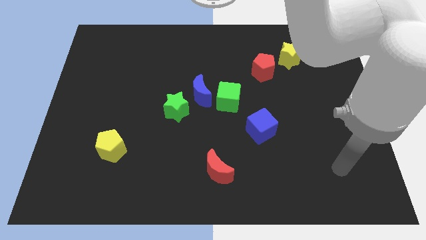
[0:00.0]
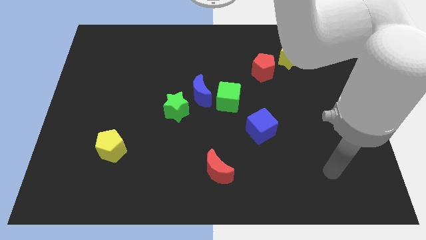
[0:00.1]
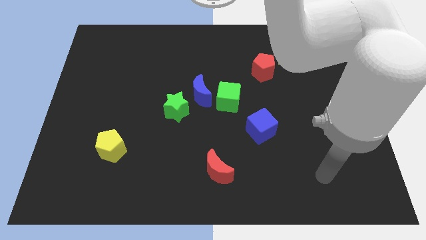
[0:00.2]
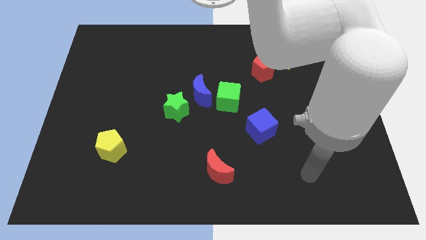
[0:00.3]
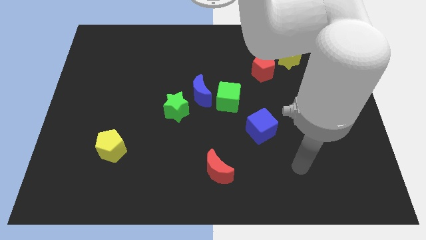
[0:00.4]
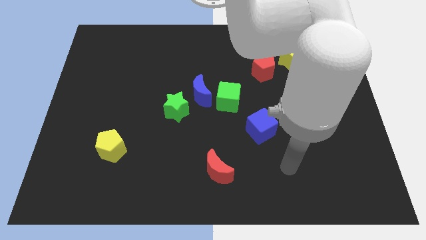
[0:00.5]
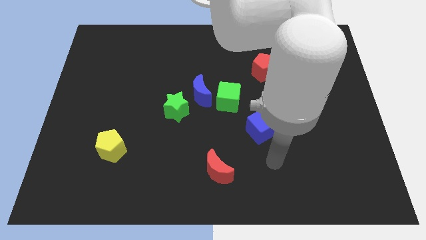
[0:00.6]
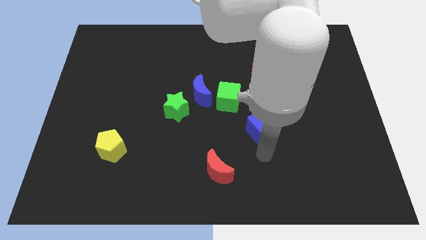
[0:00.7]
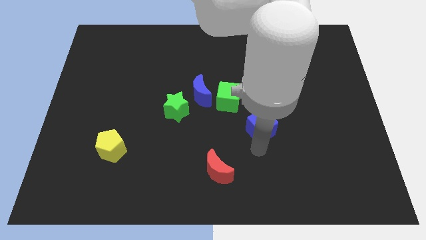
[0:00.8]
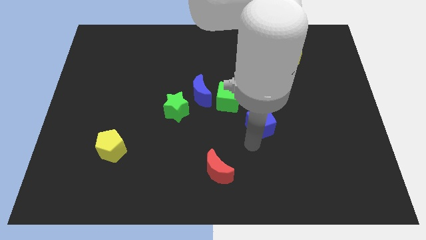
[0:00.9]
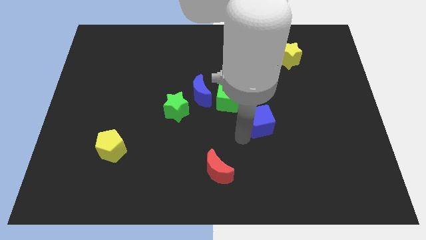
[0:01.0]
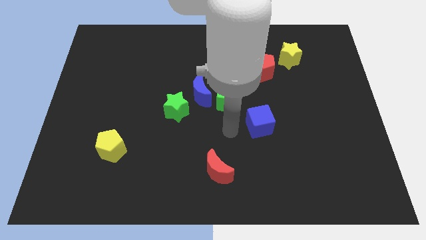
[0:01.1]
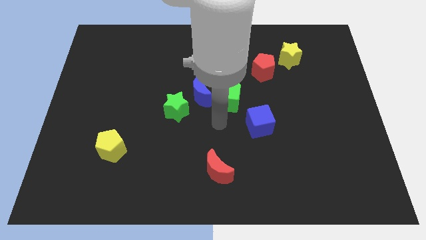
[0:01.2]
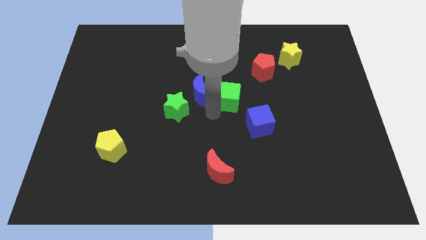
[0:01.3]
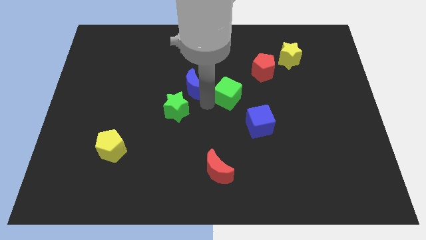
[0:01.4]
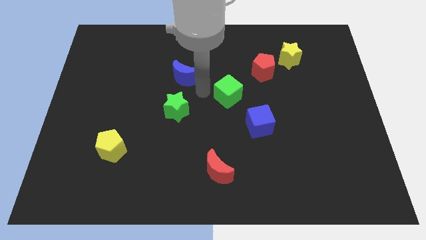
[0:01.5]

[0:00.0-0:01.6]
move the green cube away from the blue moon

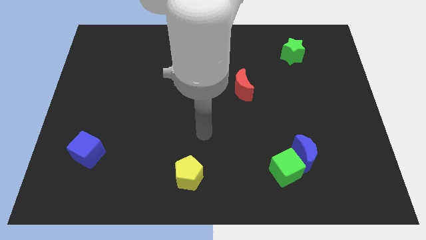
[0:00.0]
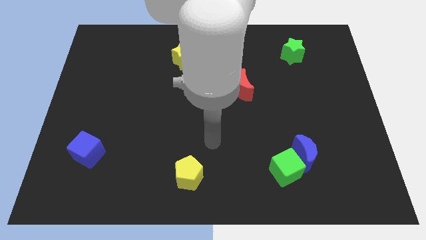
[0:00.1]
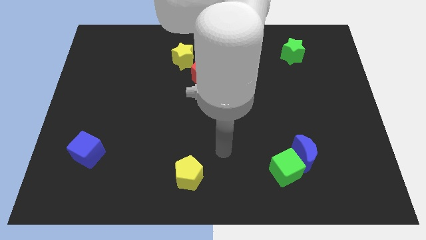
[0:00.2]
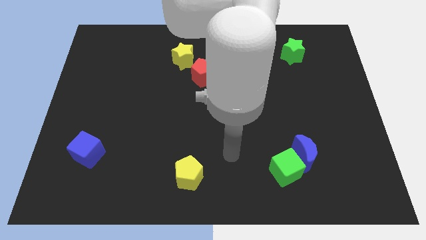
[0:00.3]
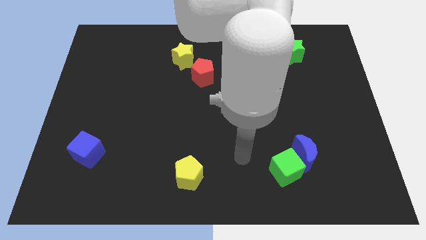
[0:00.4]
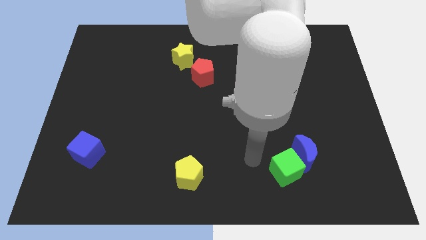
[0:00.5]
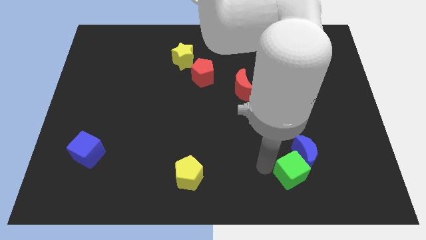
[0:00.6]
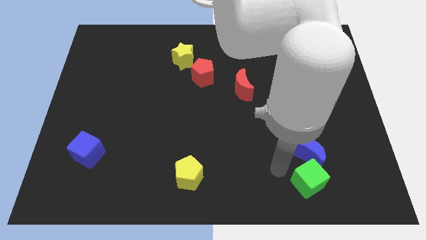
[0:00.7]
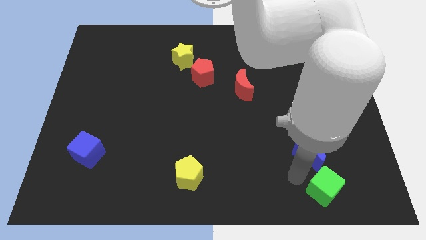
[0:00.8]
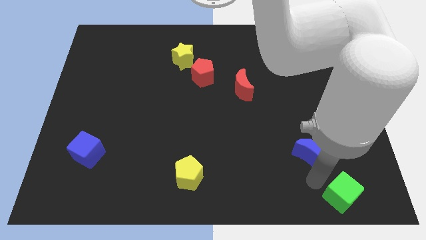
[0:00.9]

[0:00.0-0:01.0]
pull the blue moon apart from the green cube

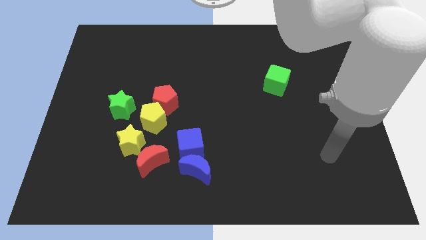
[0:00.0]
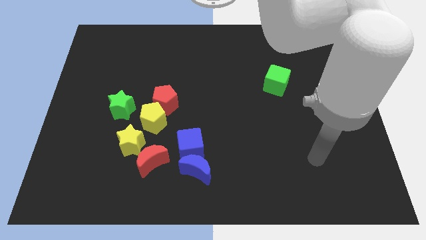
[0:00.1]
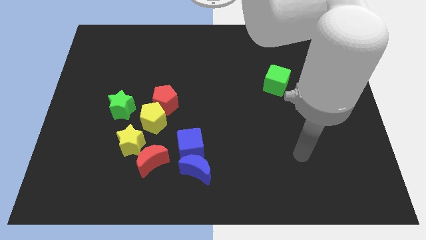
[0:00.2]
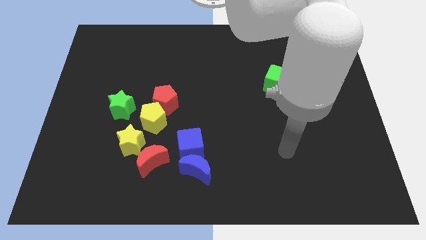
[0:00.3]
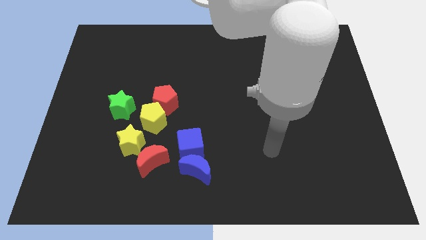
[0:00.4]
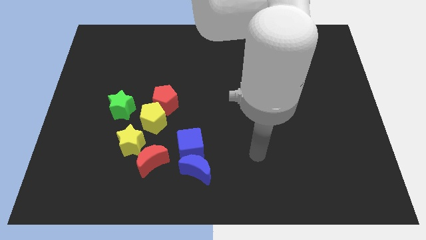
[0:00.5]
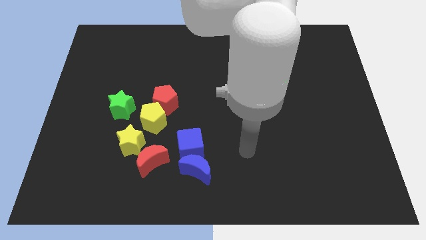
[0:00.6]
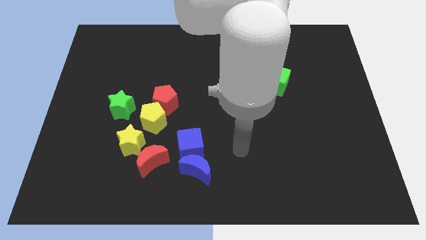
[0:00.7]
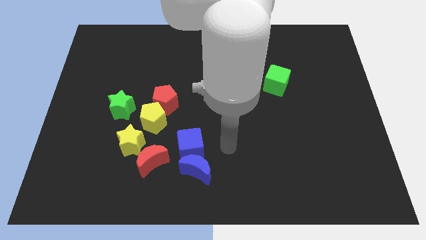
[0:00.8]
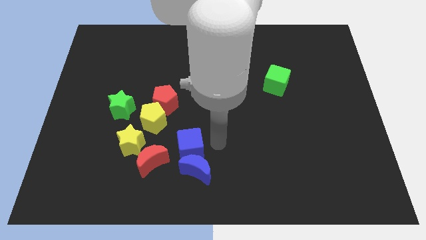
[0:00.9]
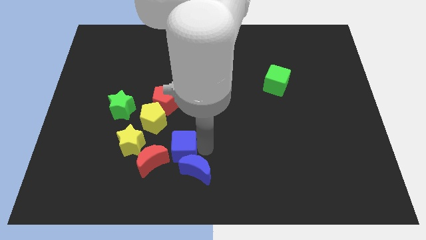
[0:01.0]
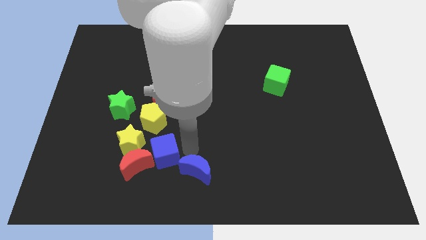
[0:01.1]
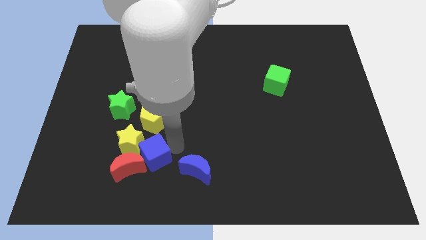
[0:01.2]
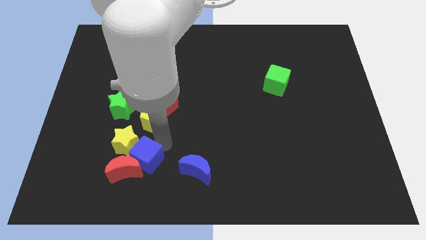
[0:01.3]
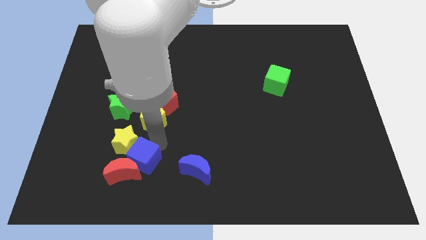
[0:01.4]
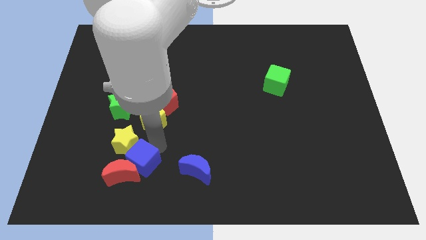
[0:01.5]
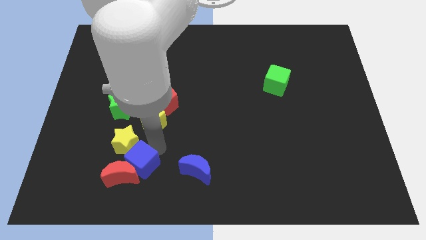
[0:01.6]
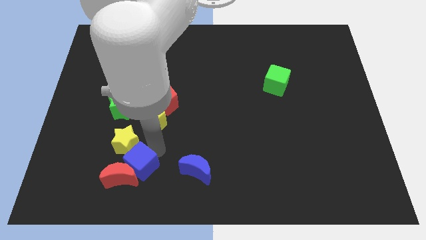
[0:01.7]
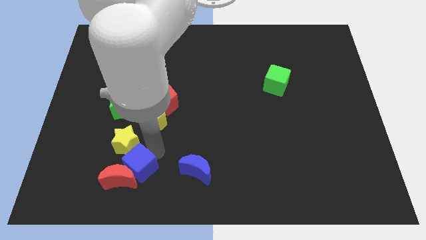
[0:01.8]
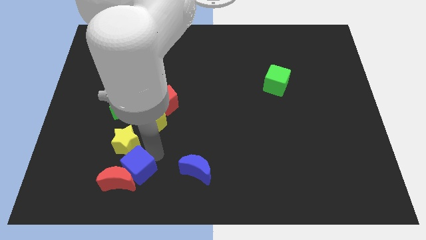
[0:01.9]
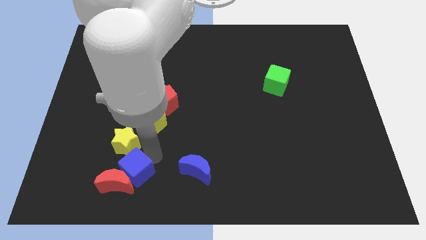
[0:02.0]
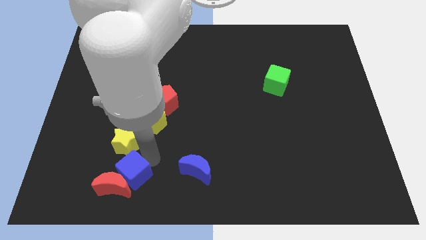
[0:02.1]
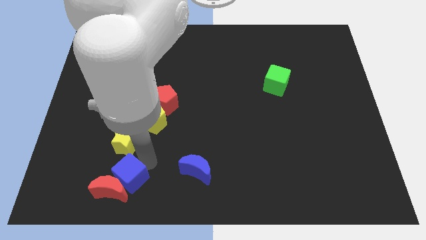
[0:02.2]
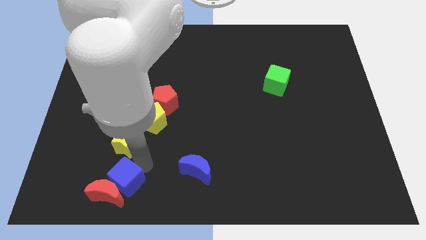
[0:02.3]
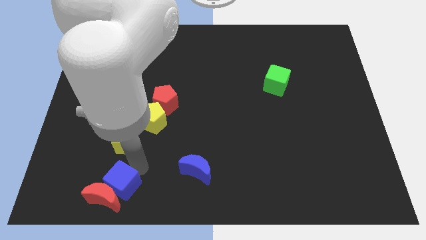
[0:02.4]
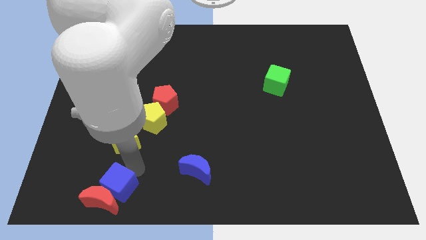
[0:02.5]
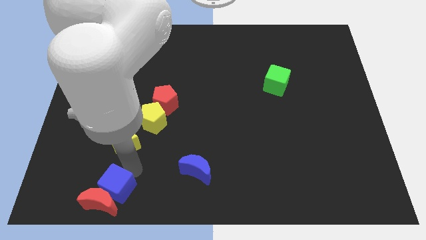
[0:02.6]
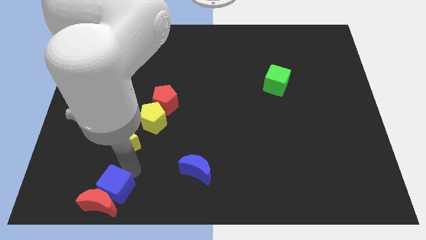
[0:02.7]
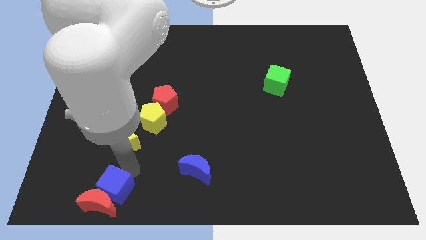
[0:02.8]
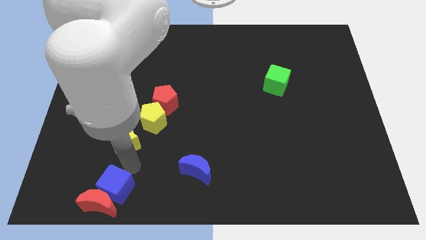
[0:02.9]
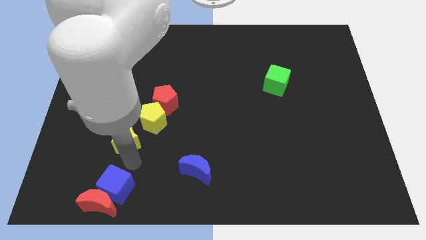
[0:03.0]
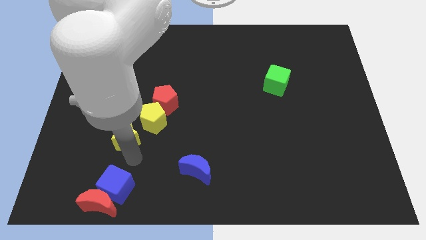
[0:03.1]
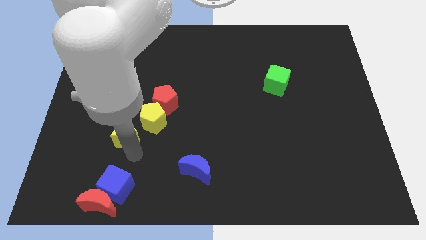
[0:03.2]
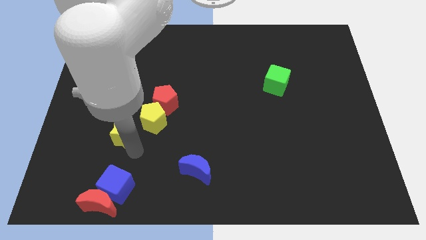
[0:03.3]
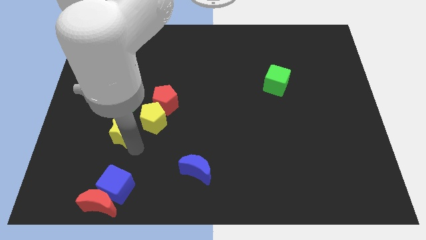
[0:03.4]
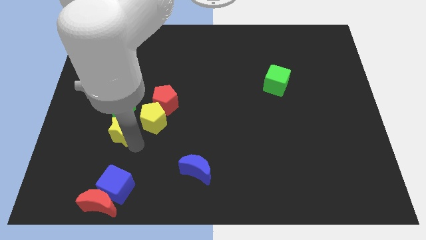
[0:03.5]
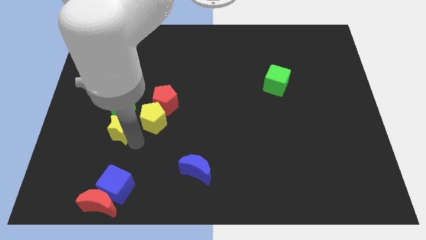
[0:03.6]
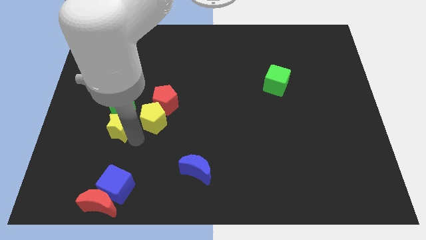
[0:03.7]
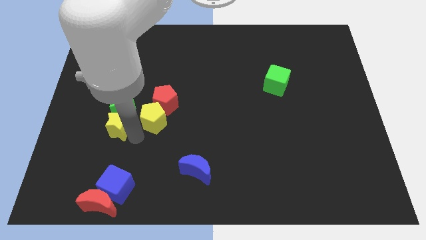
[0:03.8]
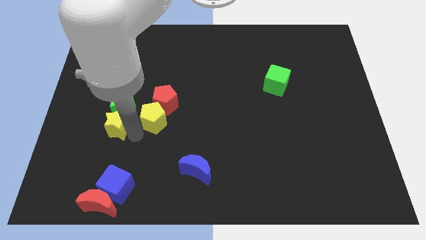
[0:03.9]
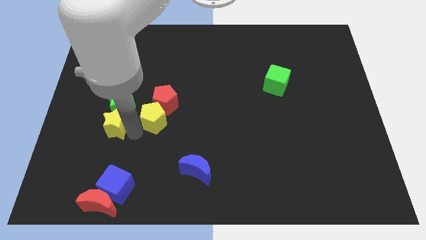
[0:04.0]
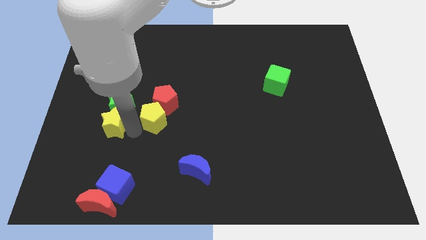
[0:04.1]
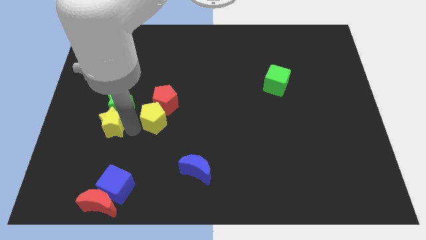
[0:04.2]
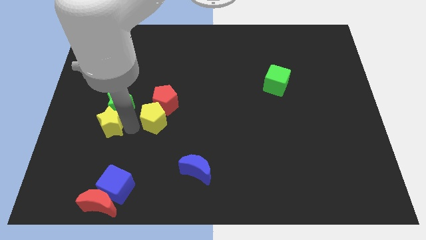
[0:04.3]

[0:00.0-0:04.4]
separate the yellow star from the red moon and yellow pentagon

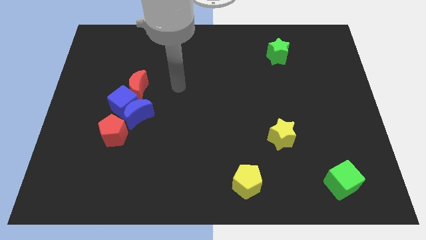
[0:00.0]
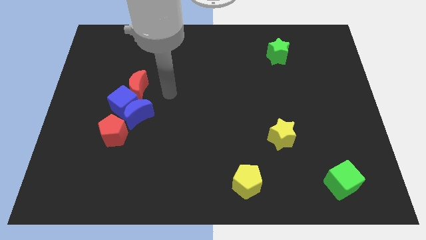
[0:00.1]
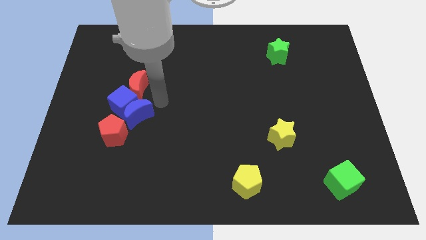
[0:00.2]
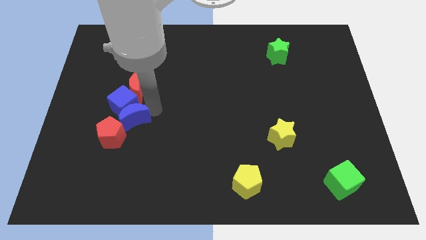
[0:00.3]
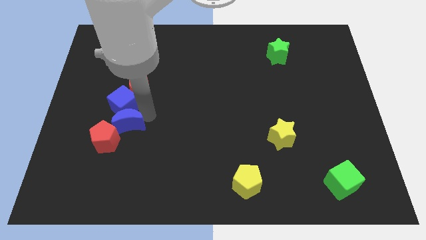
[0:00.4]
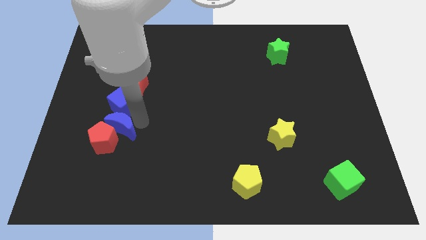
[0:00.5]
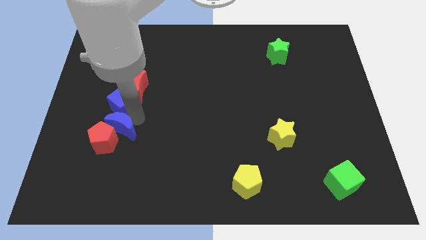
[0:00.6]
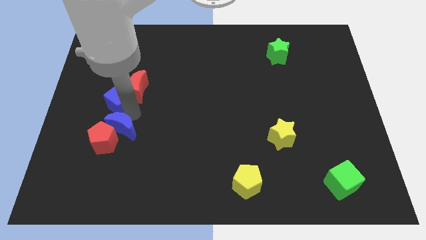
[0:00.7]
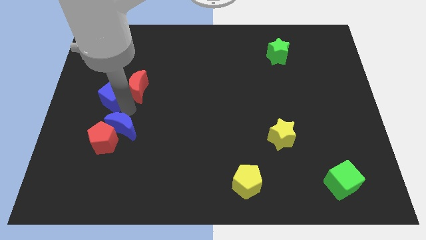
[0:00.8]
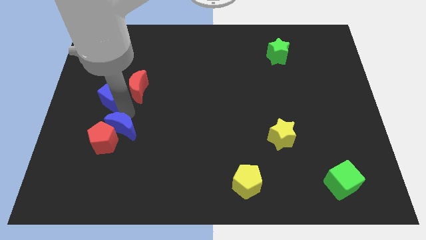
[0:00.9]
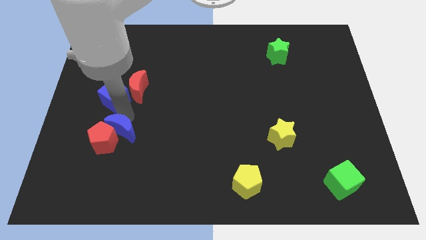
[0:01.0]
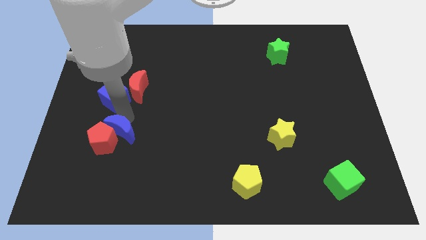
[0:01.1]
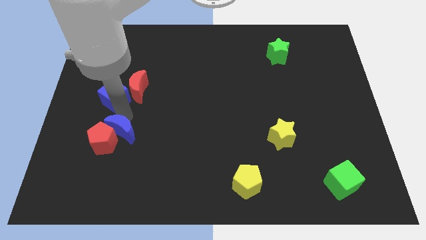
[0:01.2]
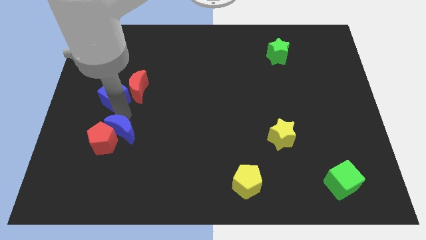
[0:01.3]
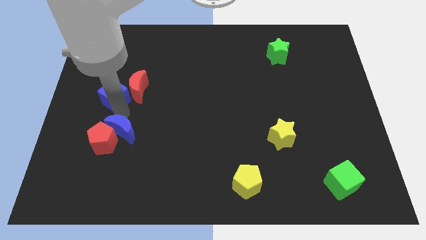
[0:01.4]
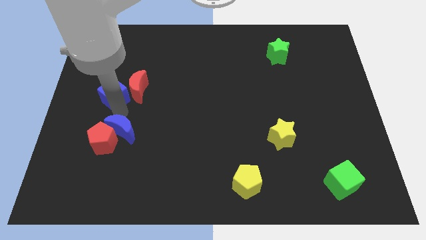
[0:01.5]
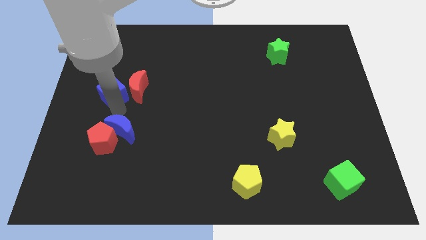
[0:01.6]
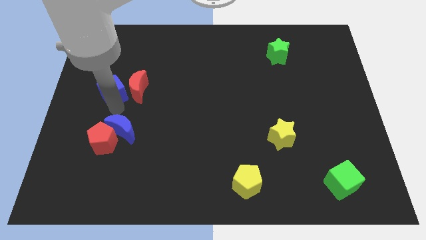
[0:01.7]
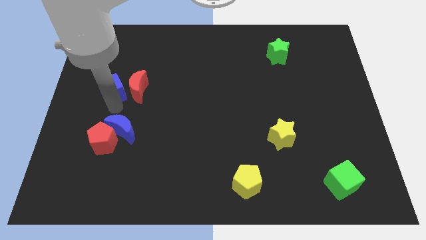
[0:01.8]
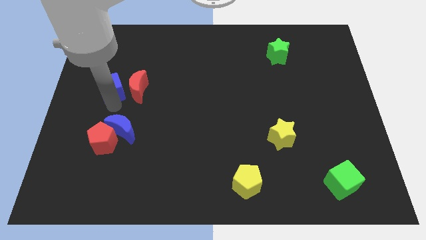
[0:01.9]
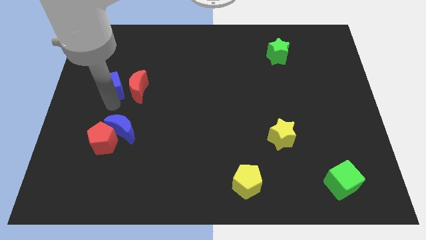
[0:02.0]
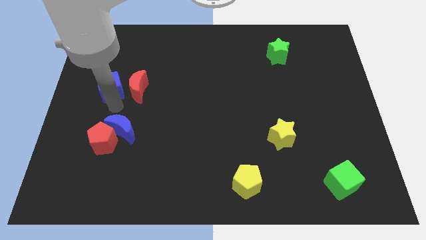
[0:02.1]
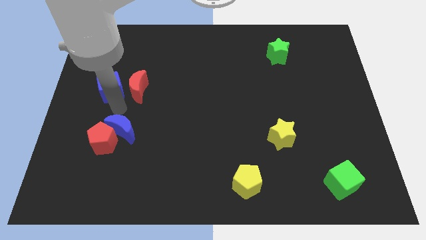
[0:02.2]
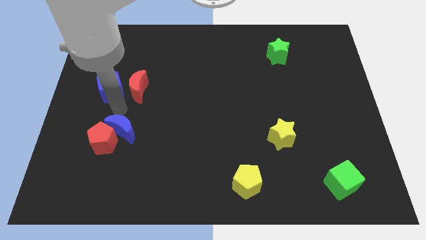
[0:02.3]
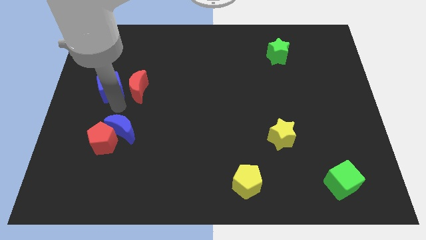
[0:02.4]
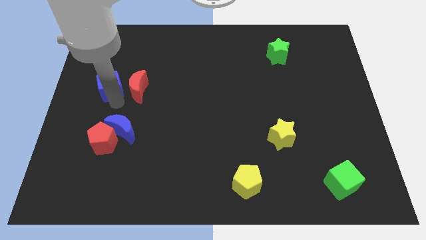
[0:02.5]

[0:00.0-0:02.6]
separate the blue cube from the clump
